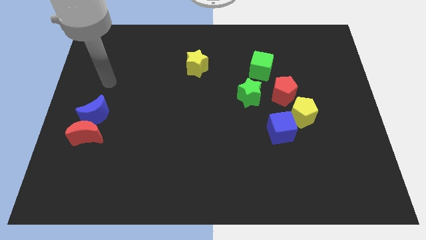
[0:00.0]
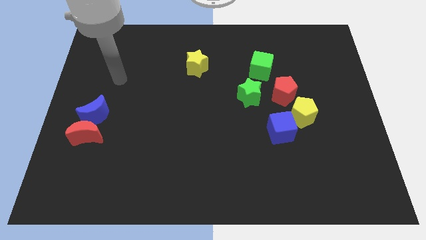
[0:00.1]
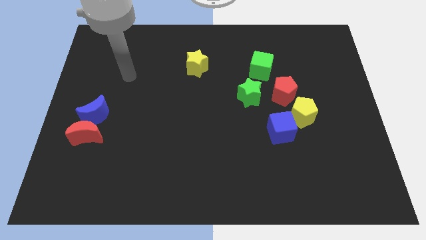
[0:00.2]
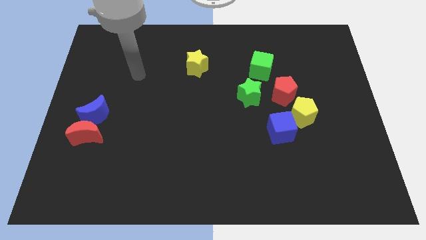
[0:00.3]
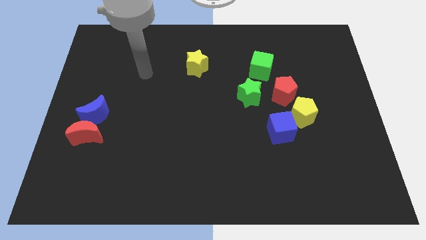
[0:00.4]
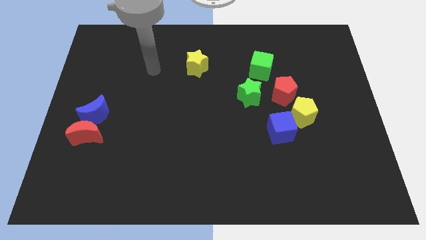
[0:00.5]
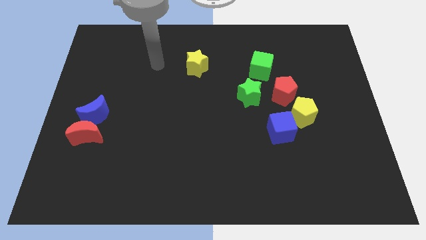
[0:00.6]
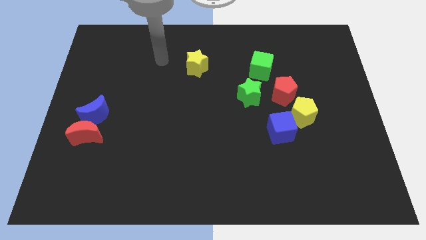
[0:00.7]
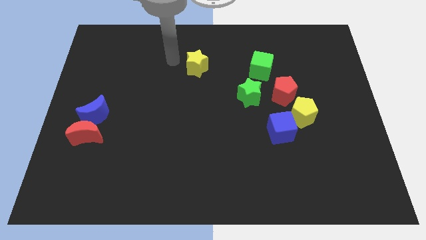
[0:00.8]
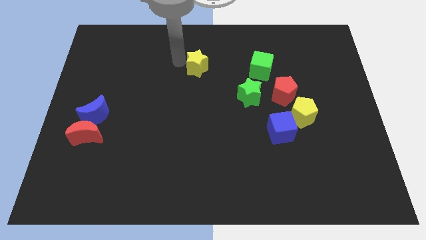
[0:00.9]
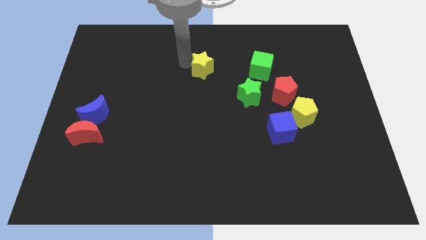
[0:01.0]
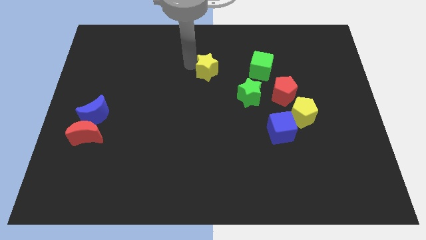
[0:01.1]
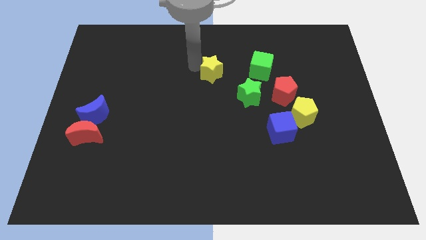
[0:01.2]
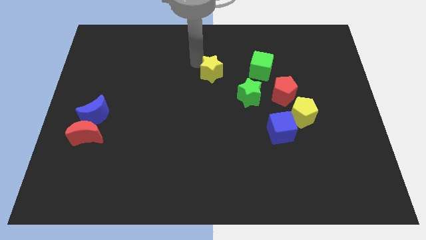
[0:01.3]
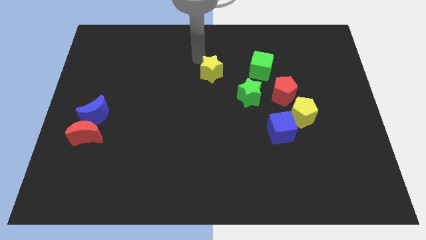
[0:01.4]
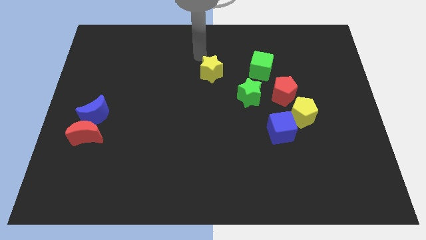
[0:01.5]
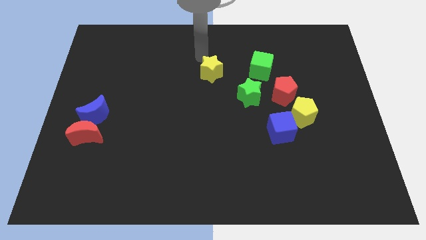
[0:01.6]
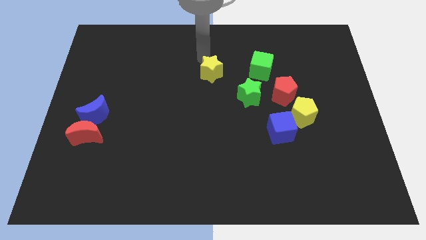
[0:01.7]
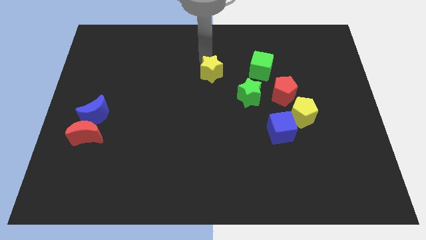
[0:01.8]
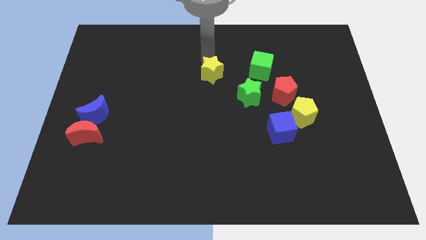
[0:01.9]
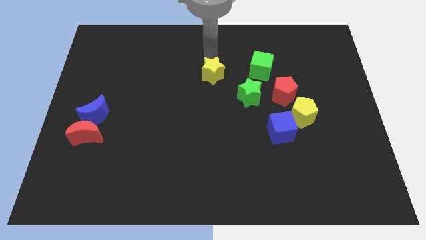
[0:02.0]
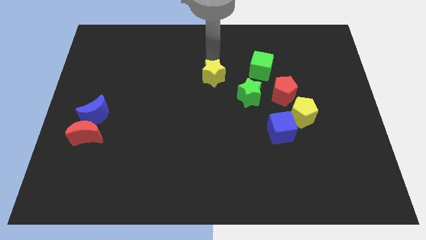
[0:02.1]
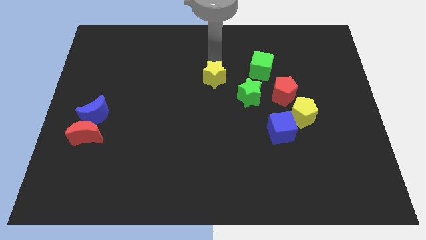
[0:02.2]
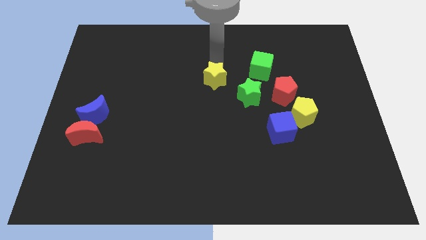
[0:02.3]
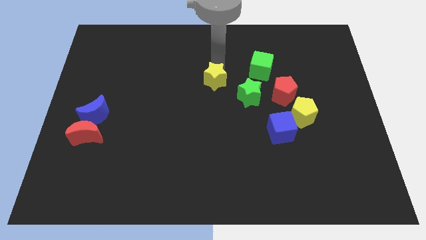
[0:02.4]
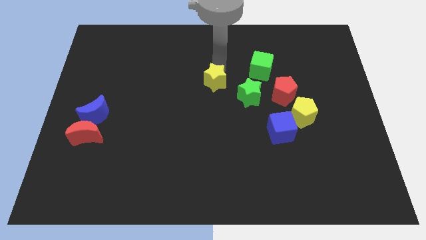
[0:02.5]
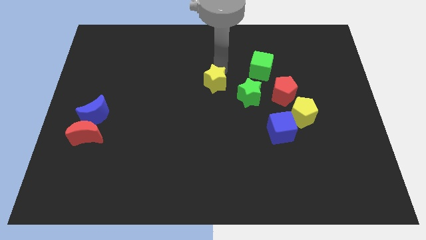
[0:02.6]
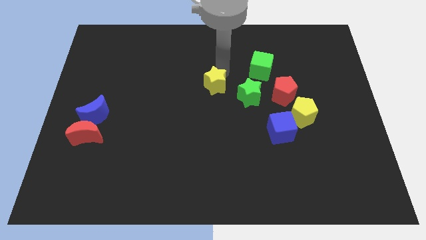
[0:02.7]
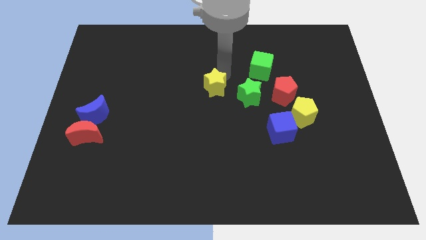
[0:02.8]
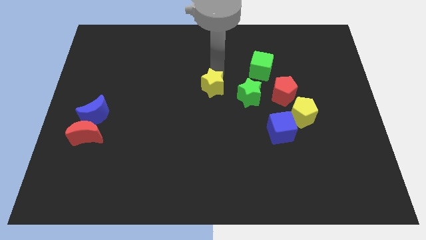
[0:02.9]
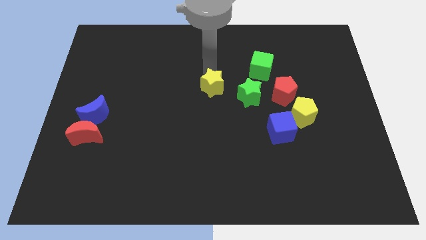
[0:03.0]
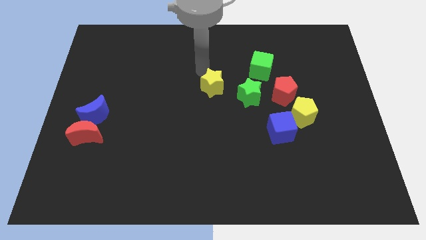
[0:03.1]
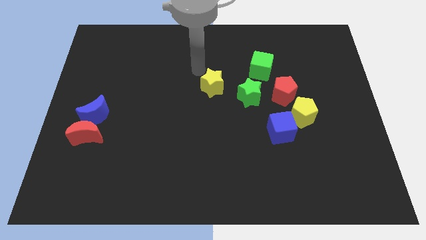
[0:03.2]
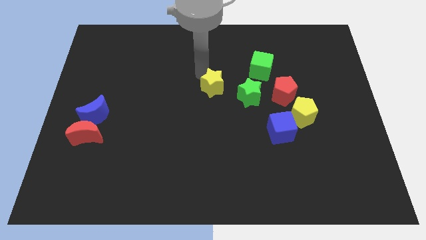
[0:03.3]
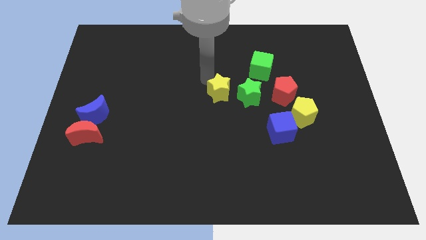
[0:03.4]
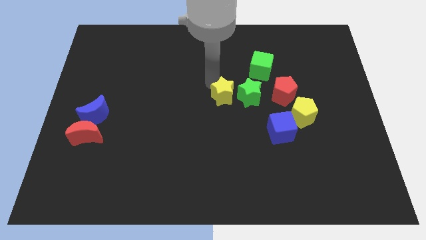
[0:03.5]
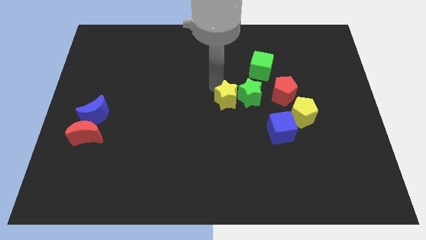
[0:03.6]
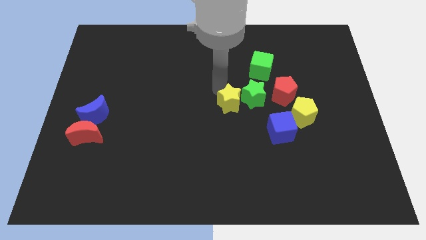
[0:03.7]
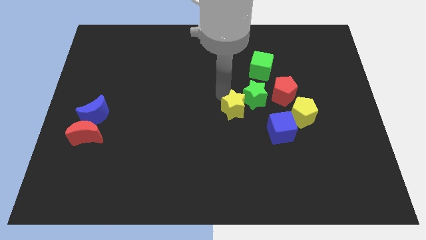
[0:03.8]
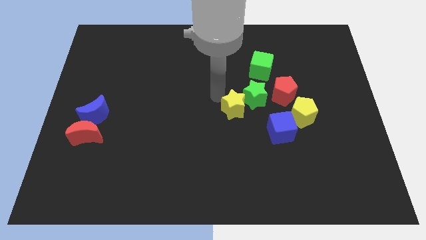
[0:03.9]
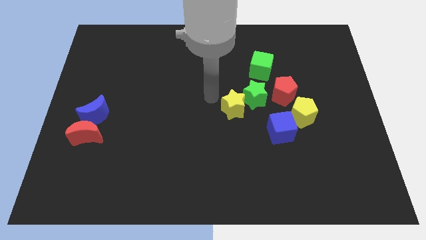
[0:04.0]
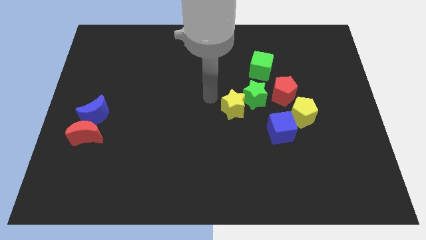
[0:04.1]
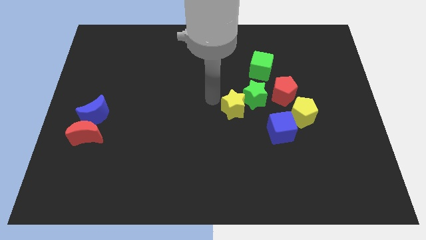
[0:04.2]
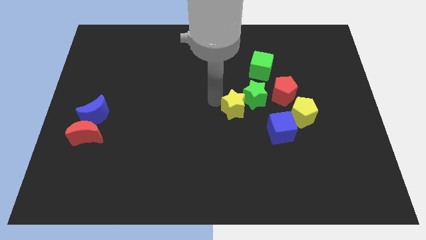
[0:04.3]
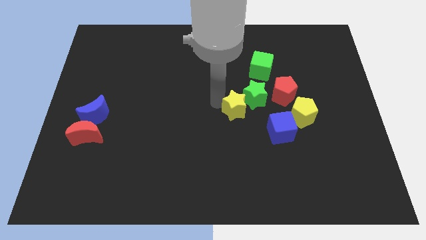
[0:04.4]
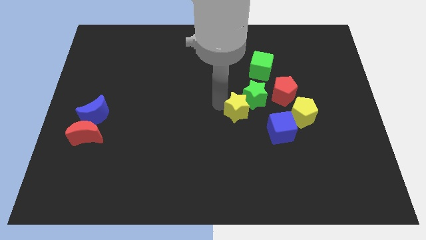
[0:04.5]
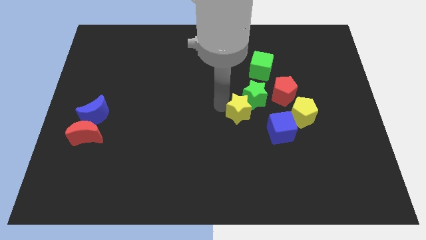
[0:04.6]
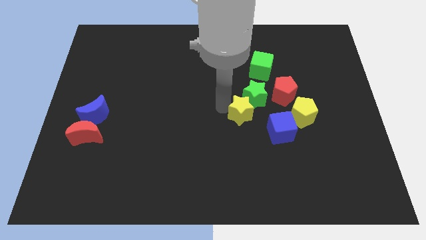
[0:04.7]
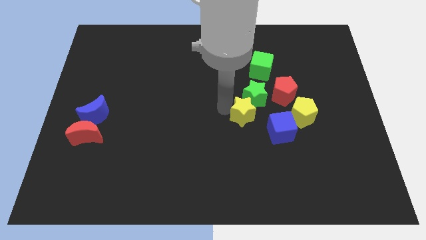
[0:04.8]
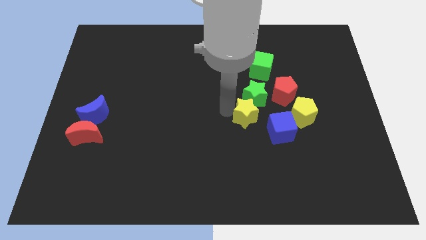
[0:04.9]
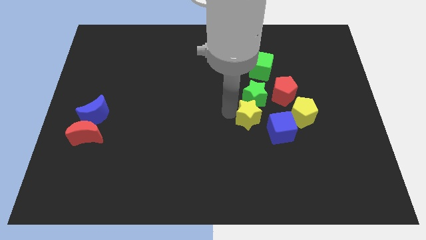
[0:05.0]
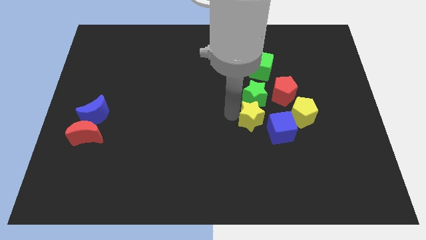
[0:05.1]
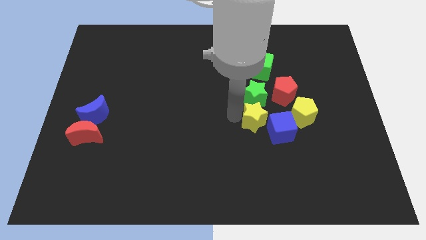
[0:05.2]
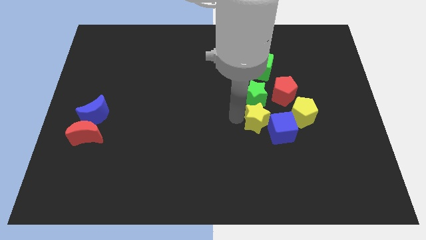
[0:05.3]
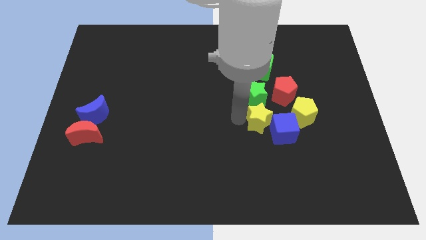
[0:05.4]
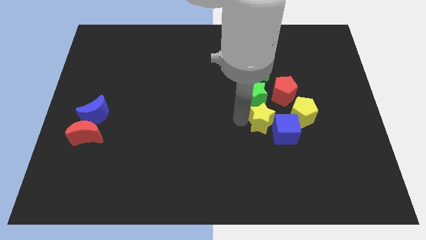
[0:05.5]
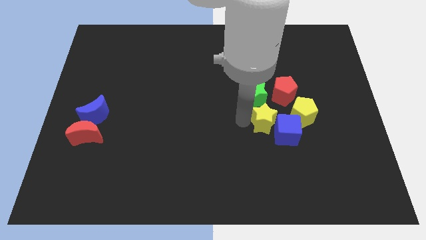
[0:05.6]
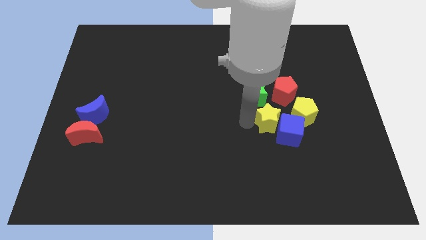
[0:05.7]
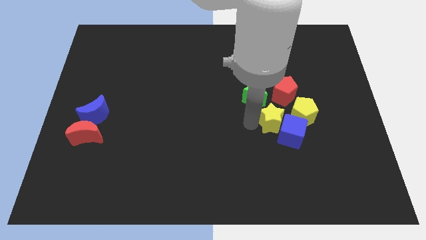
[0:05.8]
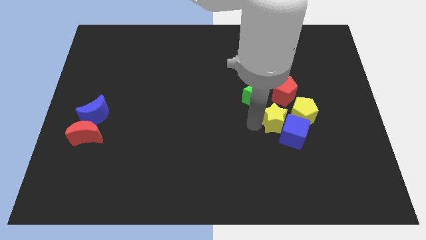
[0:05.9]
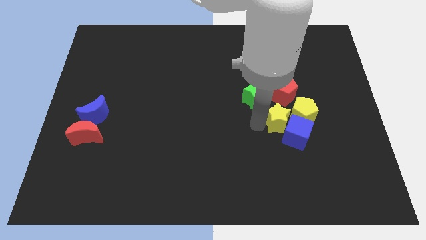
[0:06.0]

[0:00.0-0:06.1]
slide the yellow star to the yellow pentagon

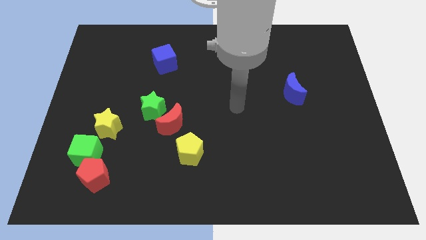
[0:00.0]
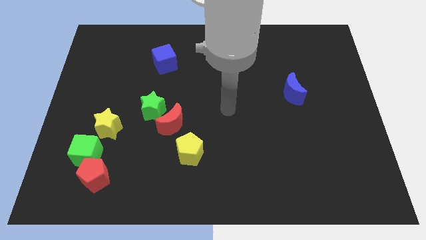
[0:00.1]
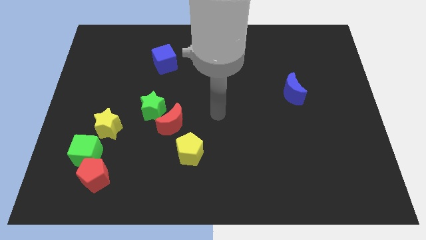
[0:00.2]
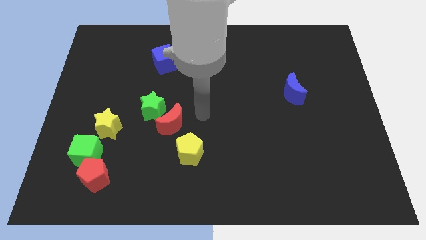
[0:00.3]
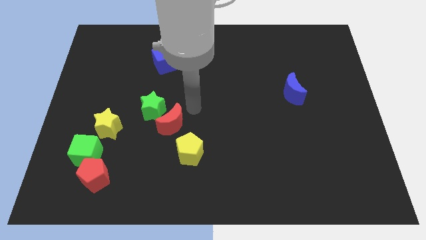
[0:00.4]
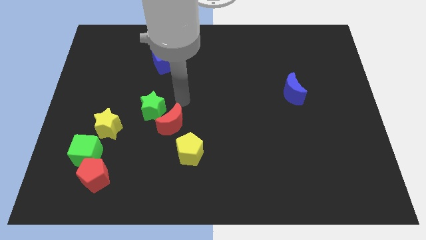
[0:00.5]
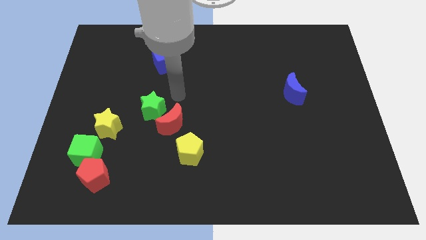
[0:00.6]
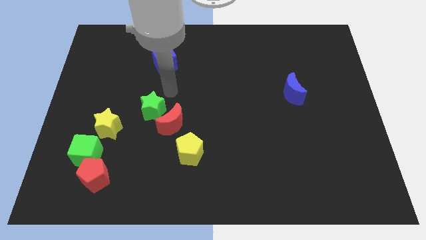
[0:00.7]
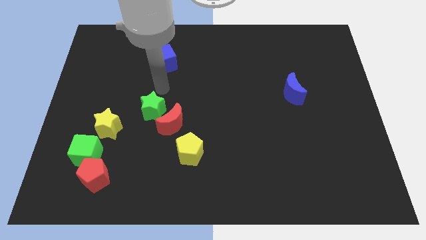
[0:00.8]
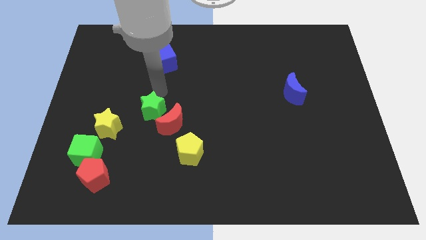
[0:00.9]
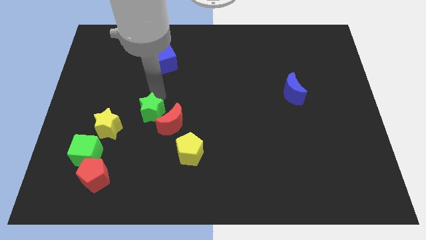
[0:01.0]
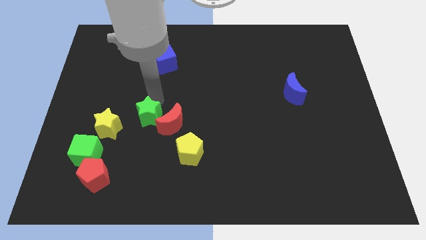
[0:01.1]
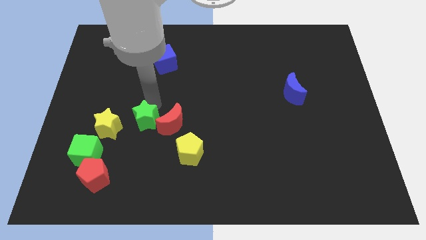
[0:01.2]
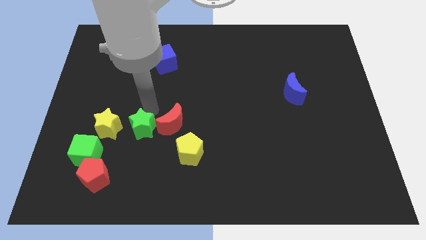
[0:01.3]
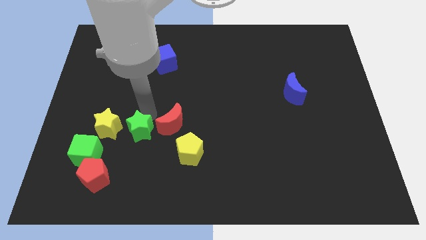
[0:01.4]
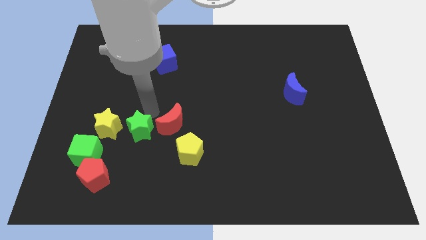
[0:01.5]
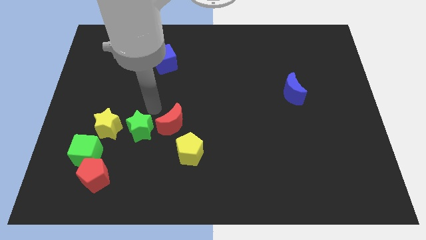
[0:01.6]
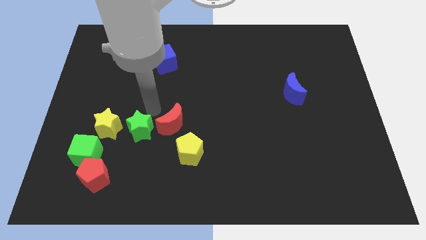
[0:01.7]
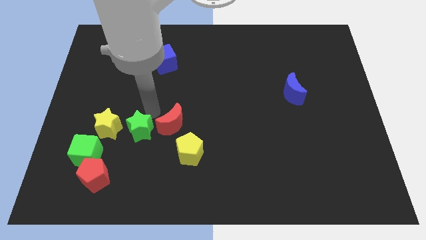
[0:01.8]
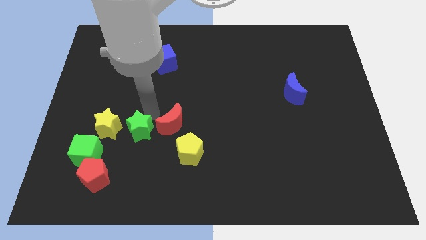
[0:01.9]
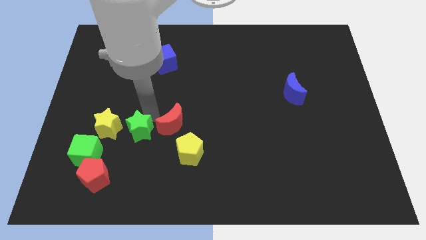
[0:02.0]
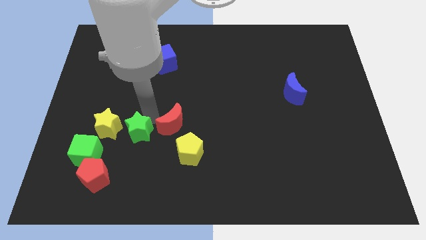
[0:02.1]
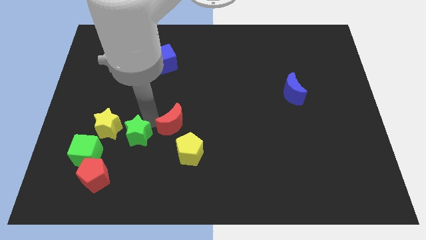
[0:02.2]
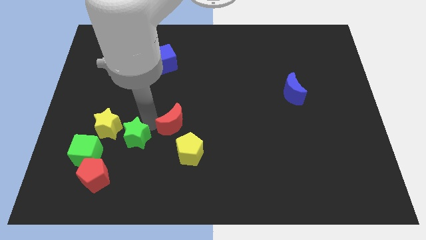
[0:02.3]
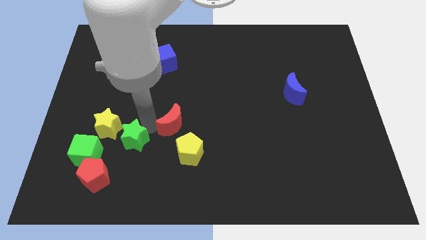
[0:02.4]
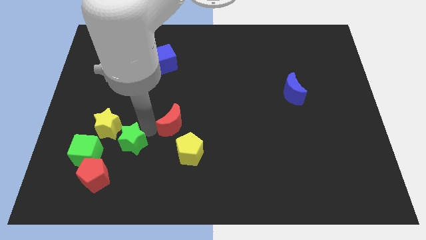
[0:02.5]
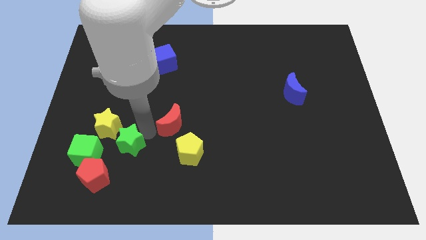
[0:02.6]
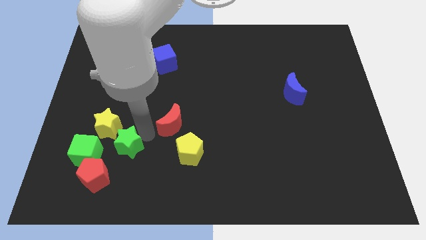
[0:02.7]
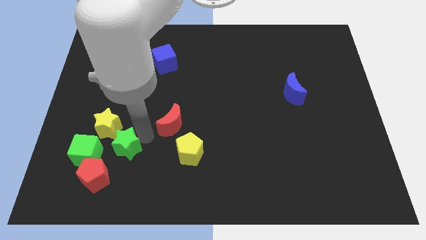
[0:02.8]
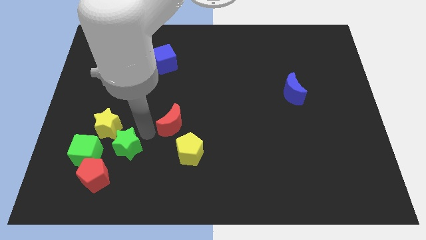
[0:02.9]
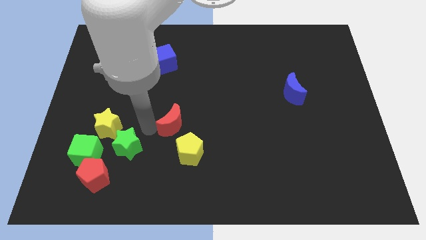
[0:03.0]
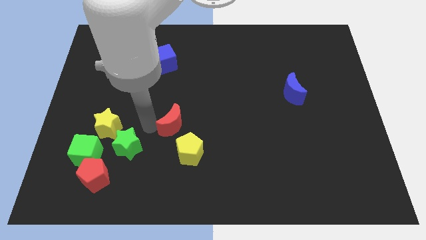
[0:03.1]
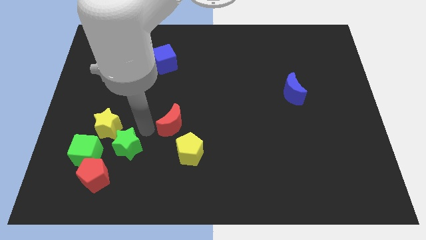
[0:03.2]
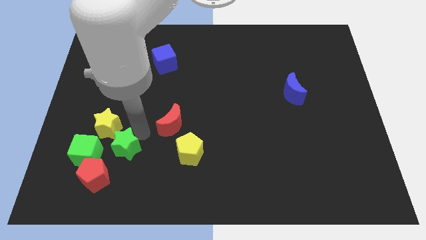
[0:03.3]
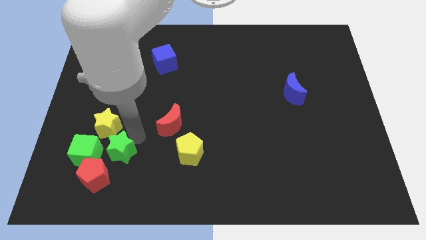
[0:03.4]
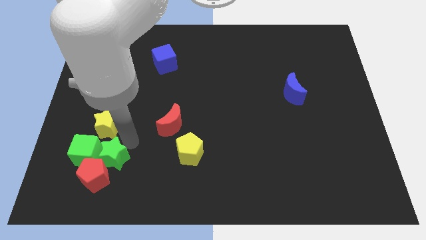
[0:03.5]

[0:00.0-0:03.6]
move the green star to the red pentagon
